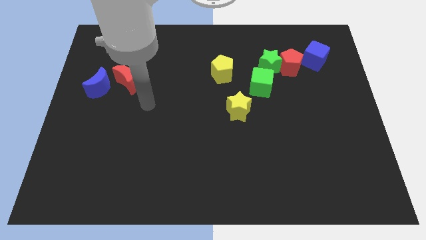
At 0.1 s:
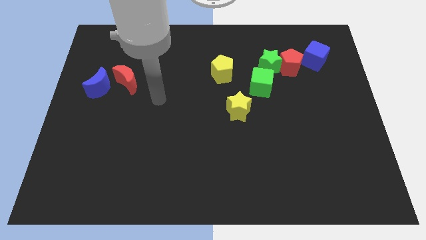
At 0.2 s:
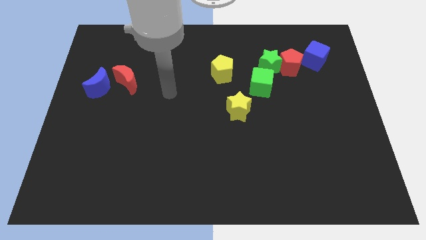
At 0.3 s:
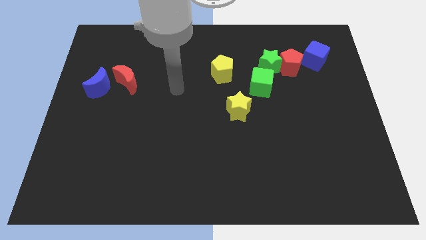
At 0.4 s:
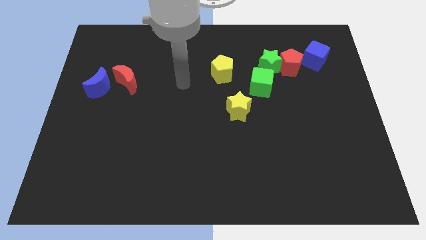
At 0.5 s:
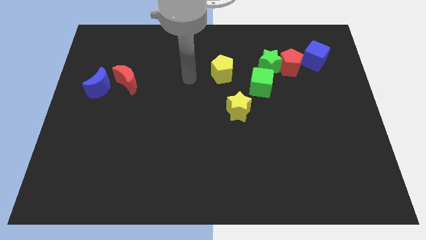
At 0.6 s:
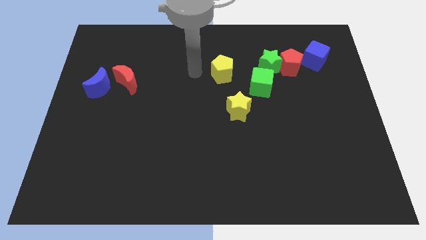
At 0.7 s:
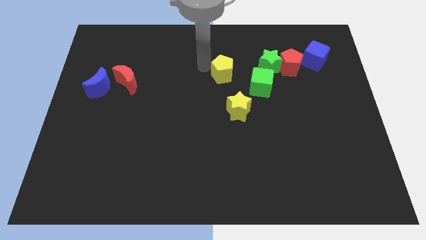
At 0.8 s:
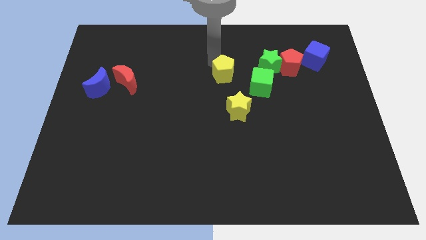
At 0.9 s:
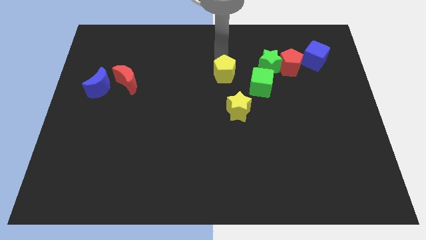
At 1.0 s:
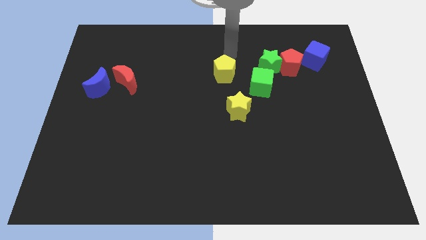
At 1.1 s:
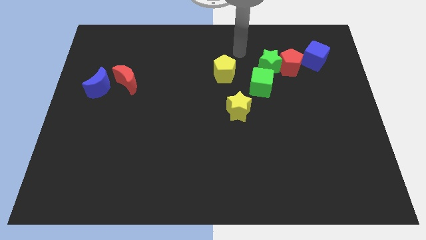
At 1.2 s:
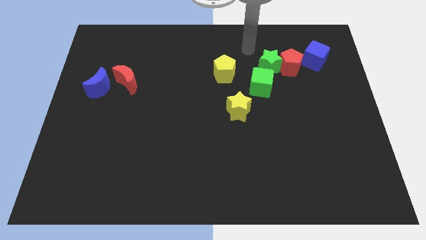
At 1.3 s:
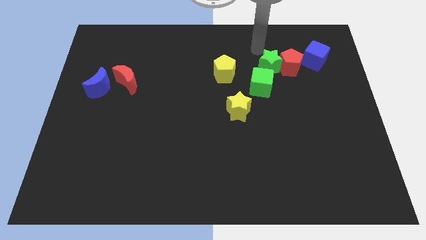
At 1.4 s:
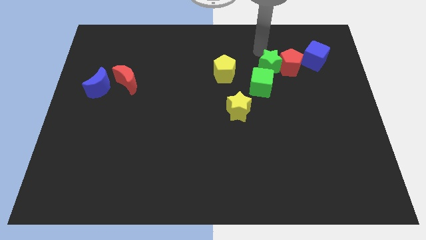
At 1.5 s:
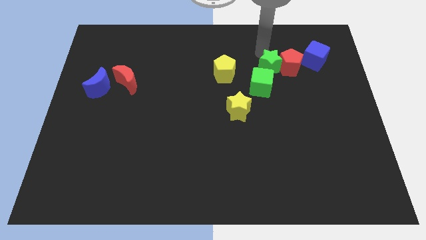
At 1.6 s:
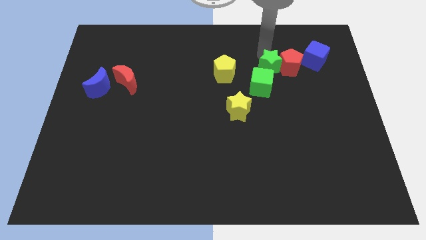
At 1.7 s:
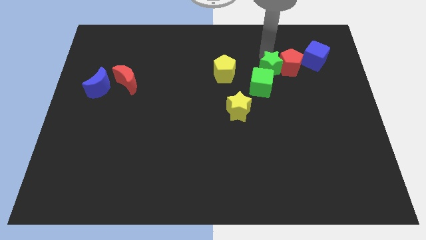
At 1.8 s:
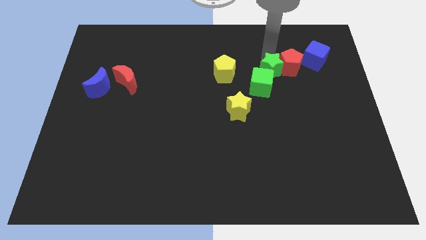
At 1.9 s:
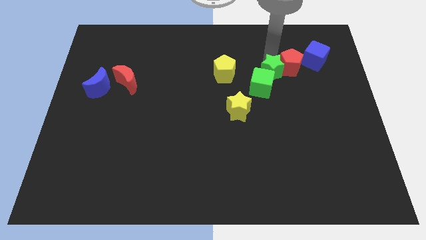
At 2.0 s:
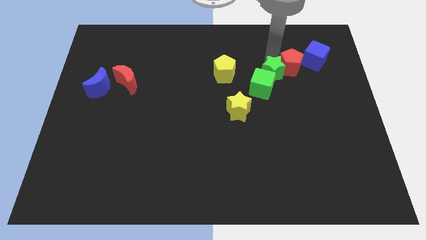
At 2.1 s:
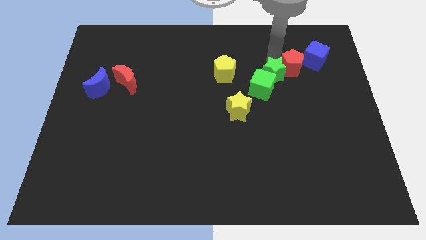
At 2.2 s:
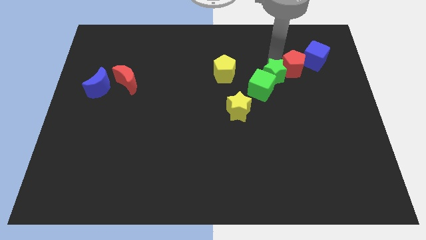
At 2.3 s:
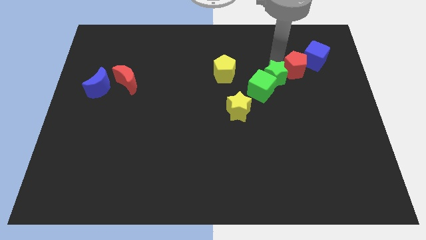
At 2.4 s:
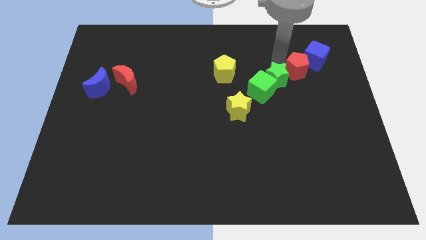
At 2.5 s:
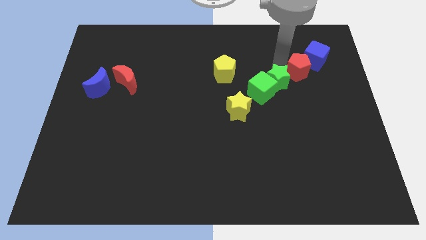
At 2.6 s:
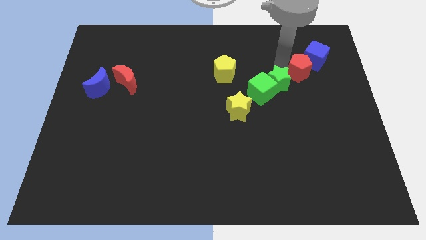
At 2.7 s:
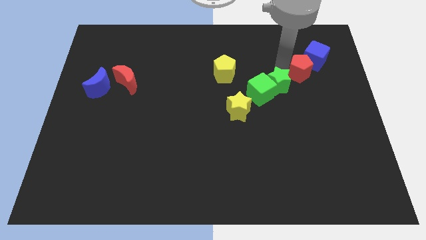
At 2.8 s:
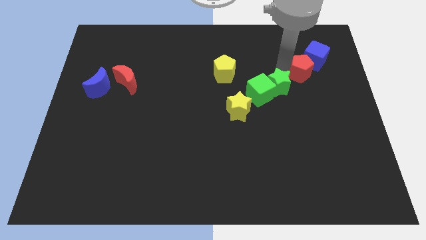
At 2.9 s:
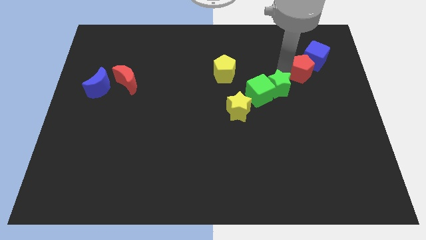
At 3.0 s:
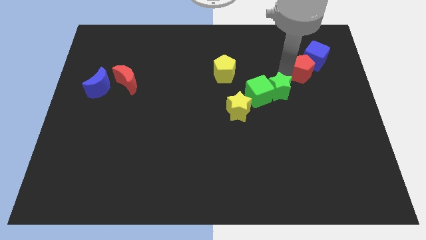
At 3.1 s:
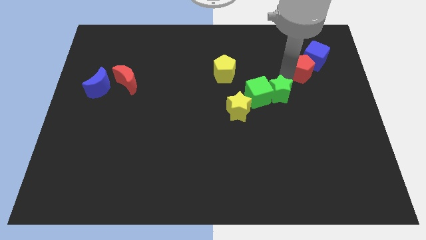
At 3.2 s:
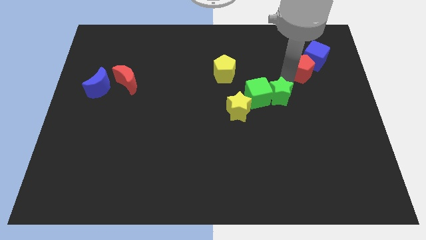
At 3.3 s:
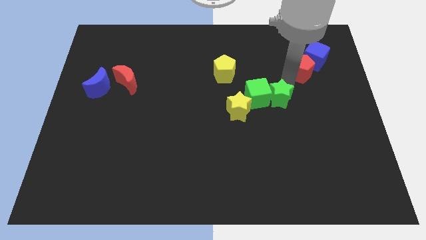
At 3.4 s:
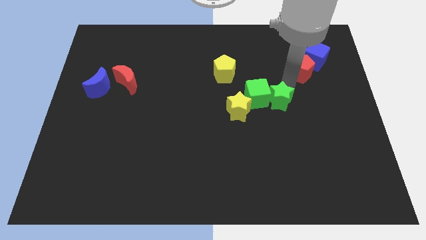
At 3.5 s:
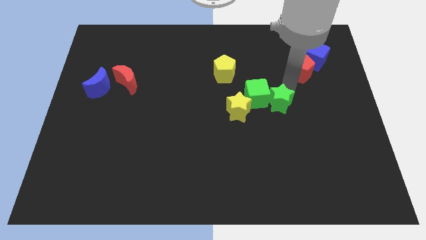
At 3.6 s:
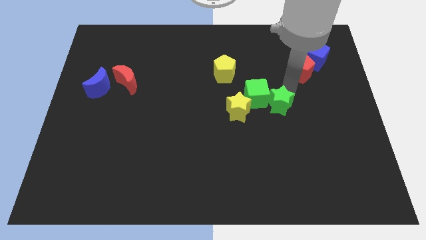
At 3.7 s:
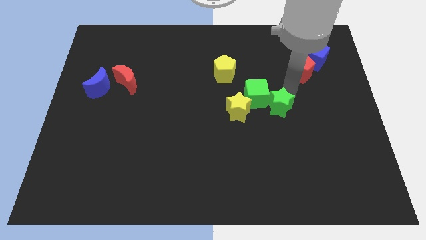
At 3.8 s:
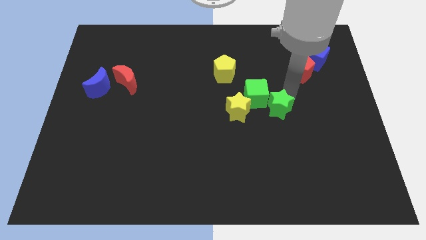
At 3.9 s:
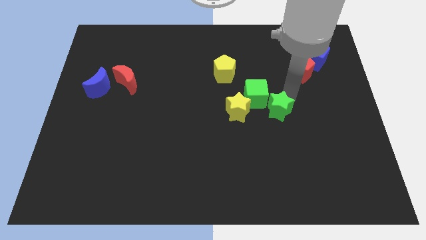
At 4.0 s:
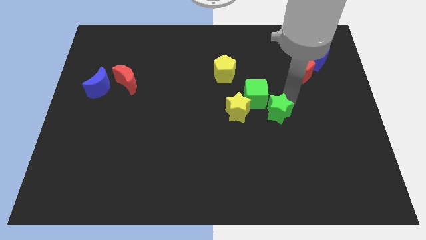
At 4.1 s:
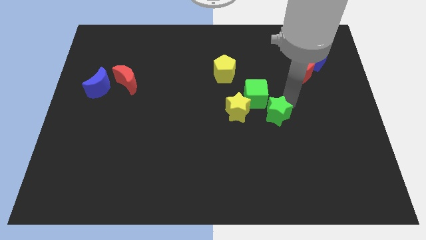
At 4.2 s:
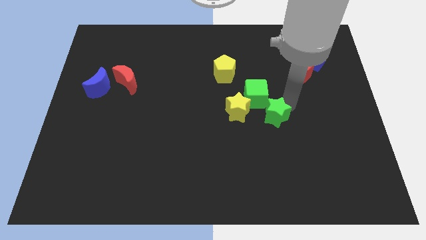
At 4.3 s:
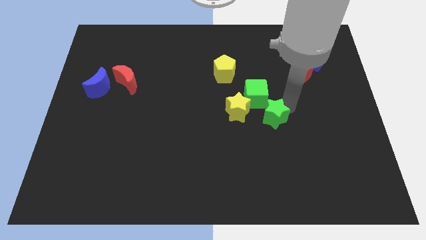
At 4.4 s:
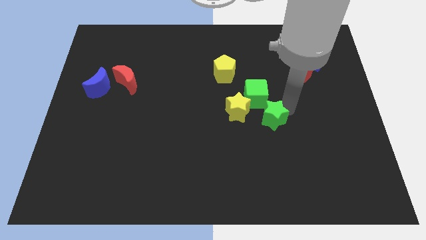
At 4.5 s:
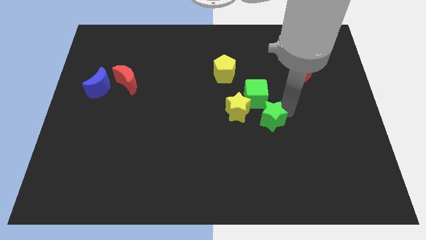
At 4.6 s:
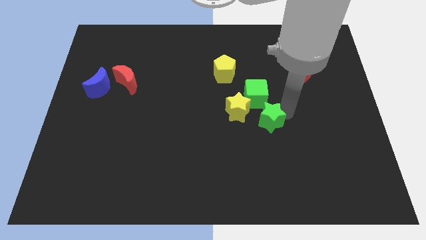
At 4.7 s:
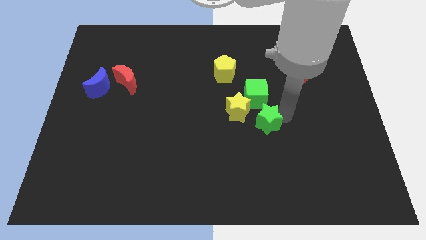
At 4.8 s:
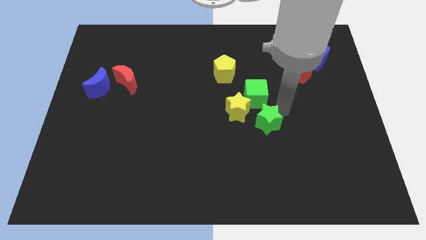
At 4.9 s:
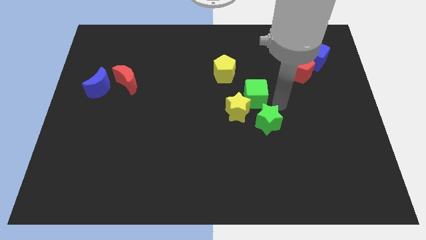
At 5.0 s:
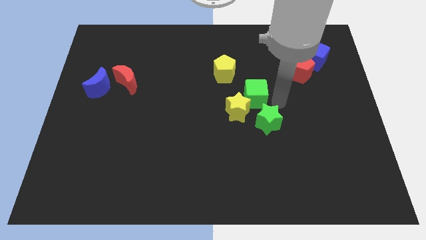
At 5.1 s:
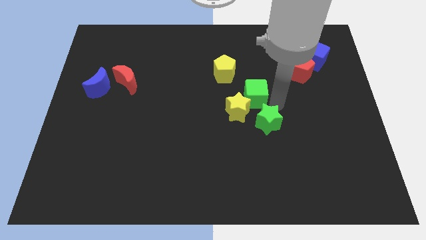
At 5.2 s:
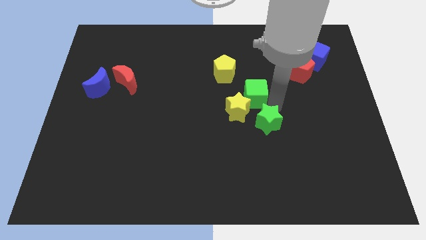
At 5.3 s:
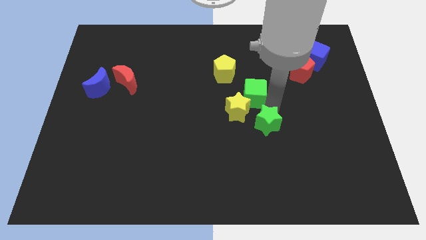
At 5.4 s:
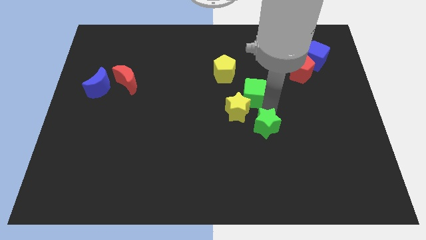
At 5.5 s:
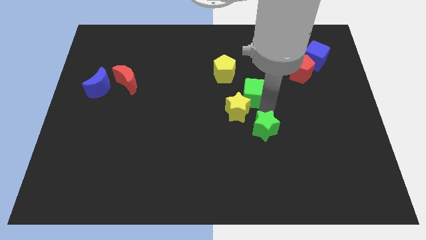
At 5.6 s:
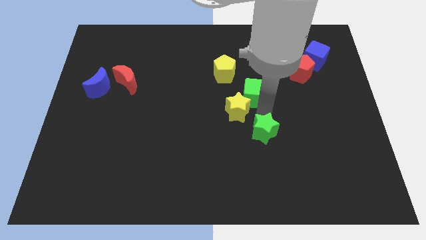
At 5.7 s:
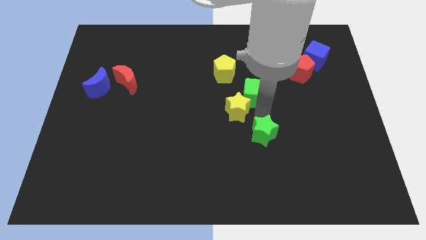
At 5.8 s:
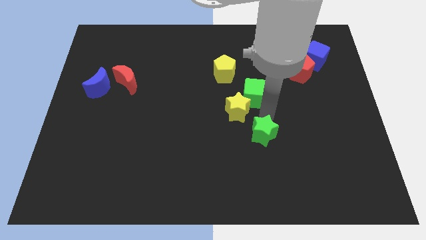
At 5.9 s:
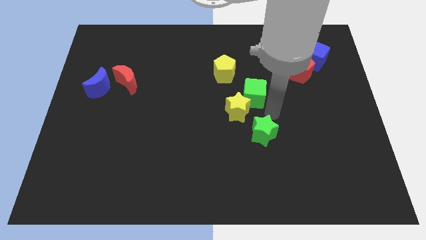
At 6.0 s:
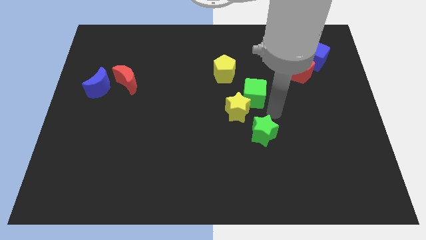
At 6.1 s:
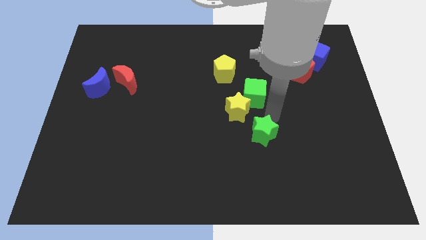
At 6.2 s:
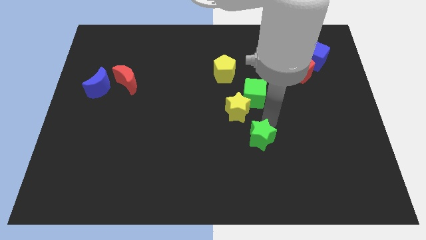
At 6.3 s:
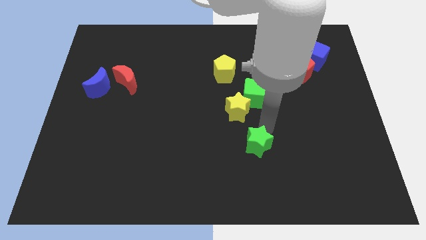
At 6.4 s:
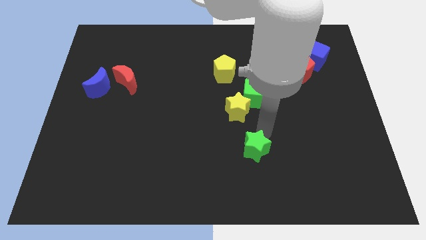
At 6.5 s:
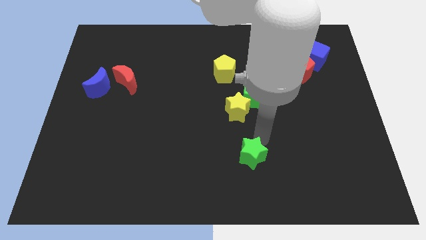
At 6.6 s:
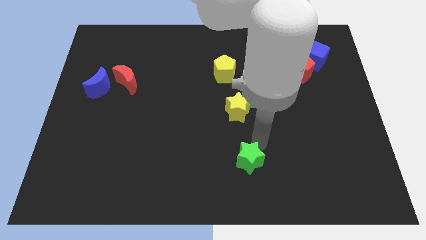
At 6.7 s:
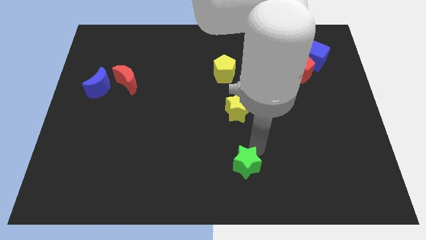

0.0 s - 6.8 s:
put the green star to the bottom side

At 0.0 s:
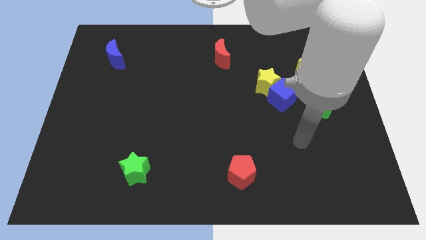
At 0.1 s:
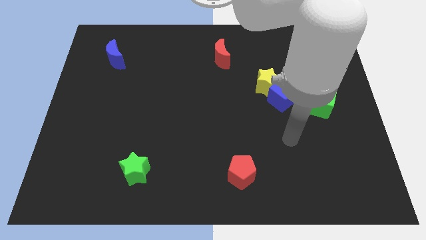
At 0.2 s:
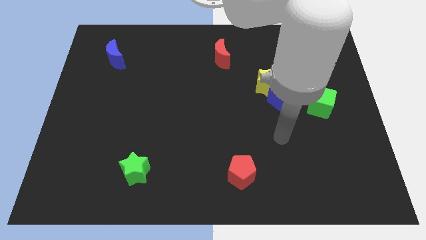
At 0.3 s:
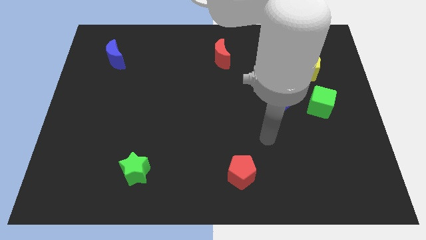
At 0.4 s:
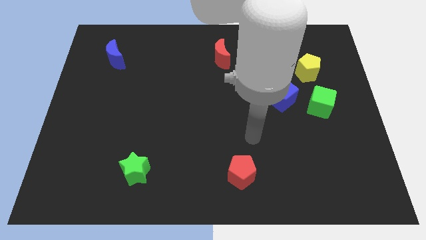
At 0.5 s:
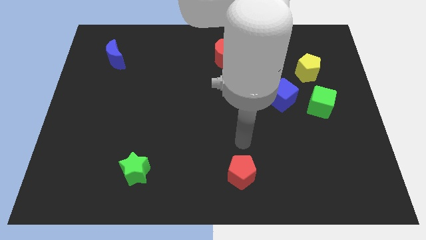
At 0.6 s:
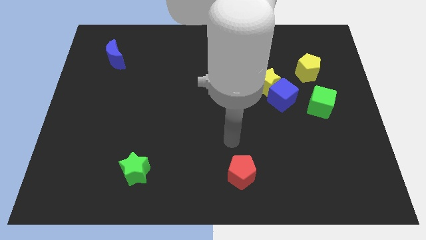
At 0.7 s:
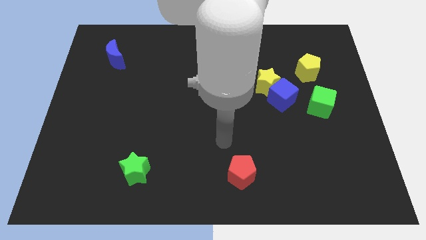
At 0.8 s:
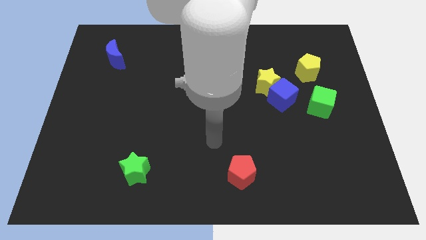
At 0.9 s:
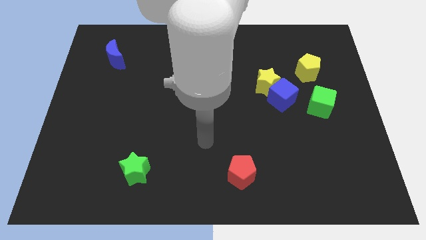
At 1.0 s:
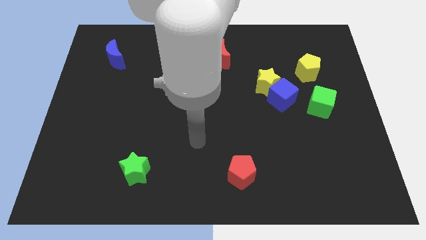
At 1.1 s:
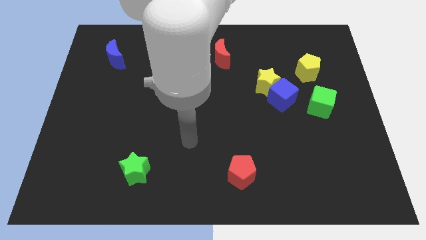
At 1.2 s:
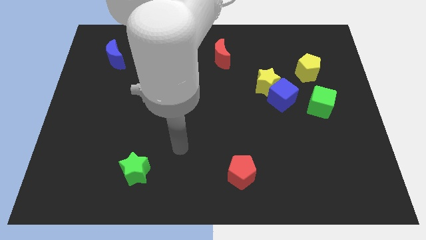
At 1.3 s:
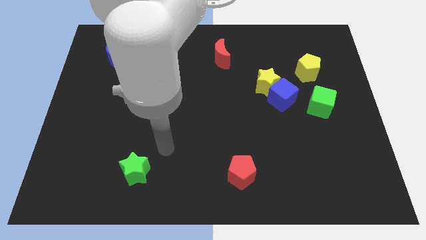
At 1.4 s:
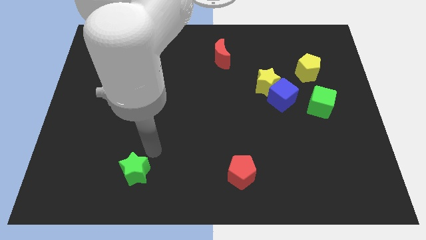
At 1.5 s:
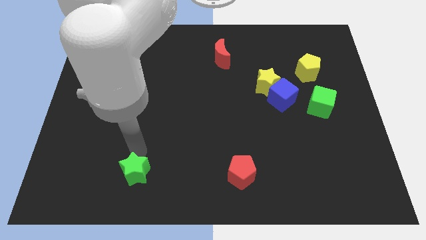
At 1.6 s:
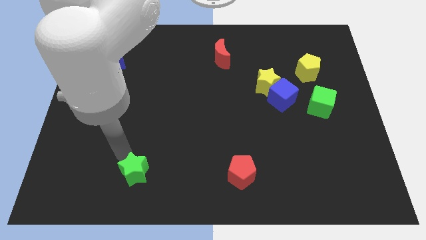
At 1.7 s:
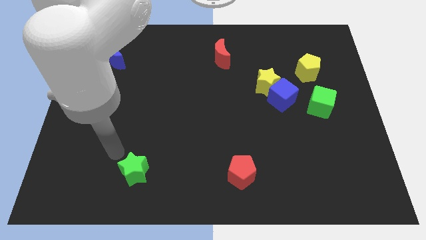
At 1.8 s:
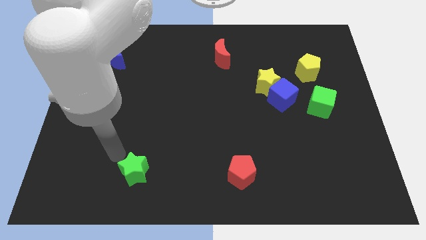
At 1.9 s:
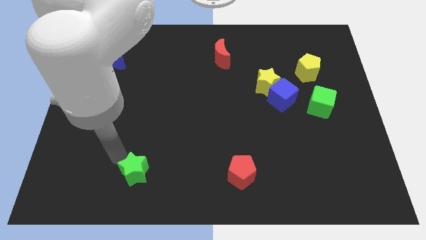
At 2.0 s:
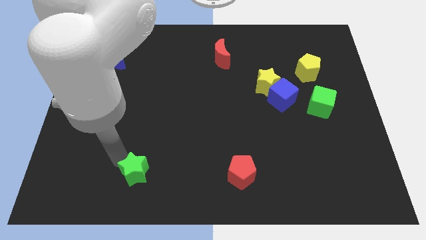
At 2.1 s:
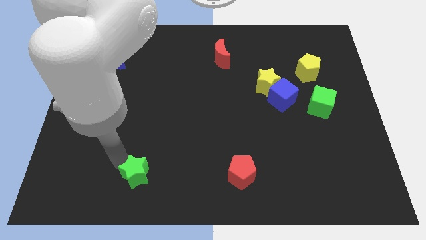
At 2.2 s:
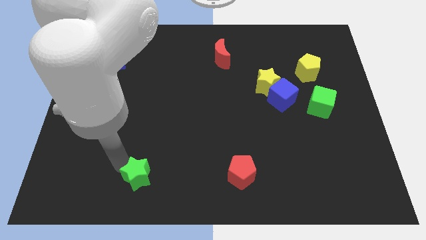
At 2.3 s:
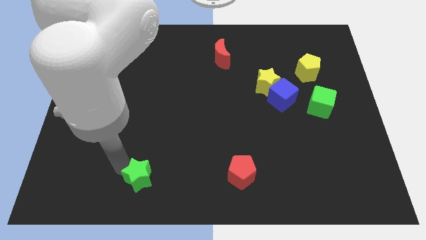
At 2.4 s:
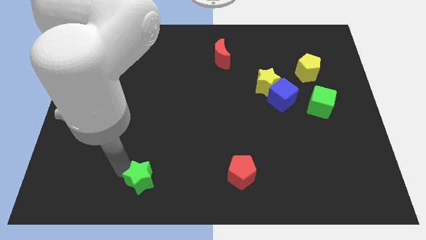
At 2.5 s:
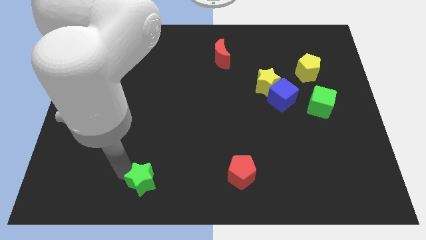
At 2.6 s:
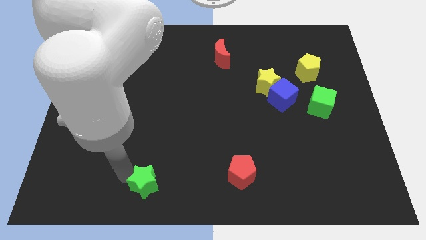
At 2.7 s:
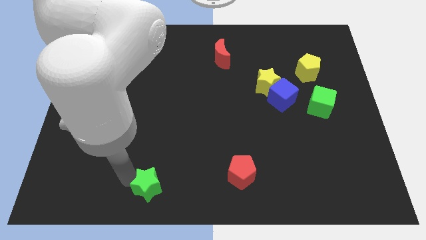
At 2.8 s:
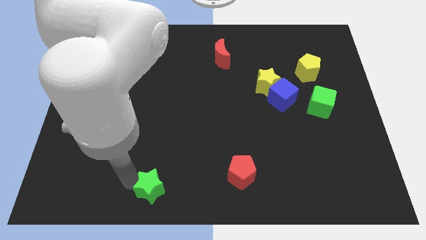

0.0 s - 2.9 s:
move the green star to the bottom side
